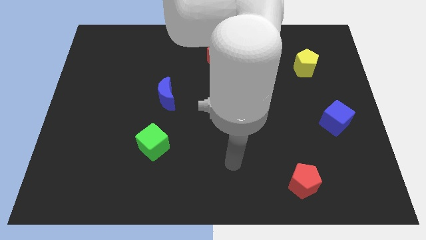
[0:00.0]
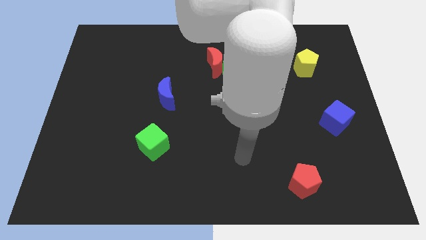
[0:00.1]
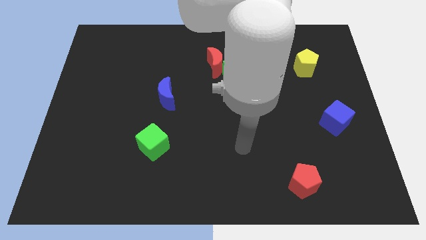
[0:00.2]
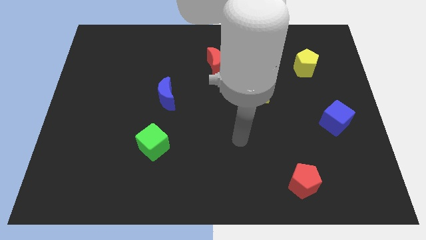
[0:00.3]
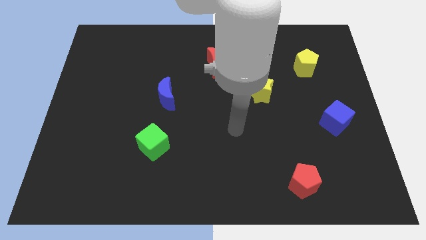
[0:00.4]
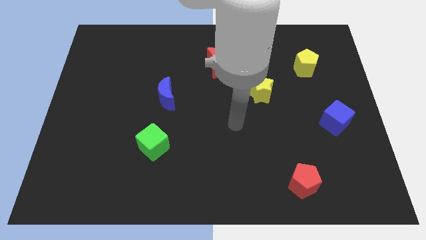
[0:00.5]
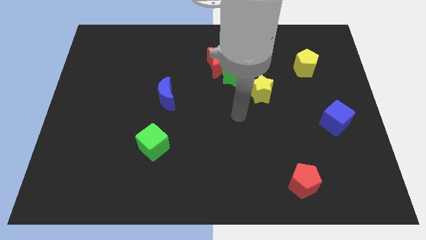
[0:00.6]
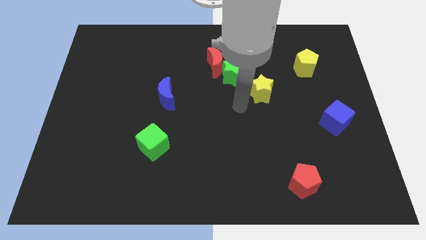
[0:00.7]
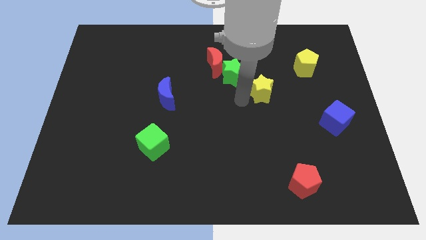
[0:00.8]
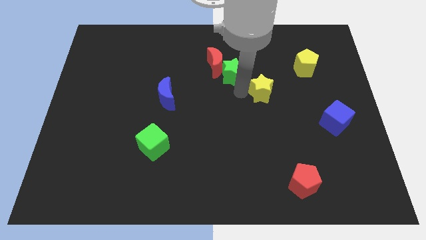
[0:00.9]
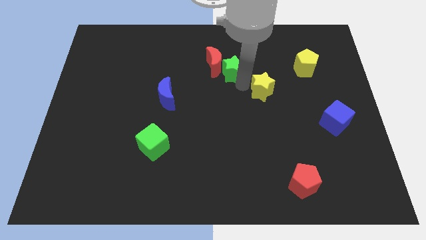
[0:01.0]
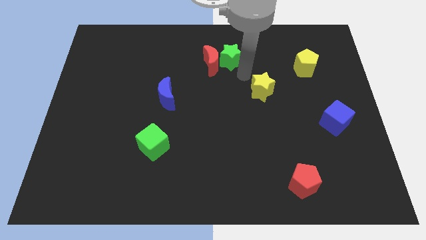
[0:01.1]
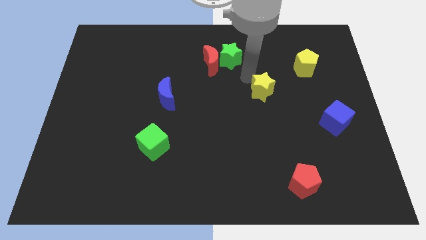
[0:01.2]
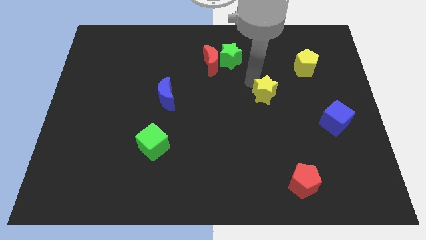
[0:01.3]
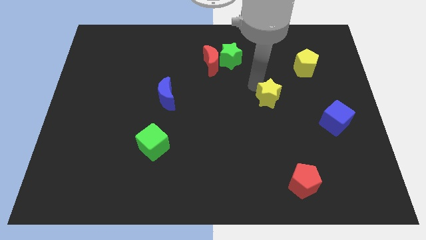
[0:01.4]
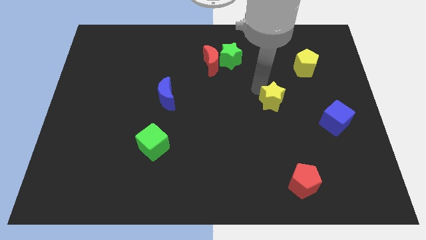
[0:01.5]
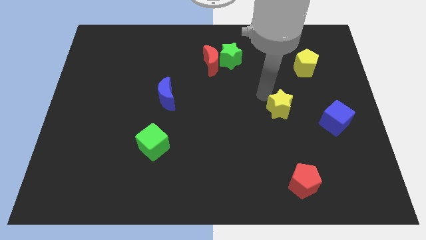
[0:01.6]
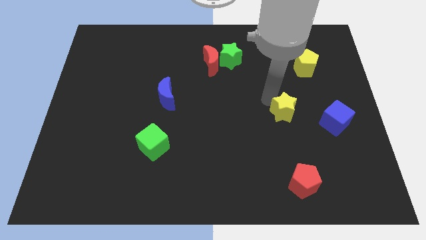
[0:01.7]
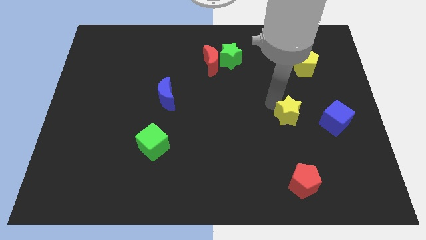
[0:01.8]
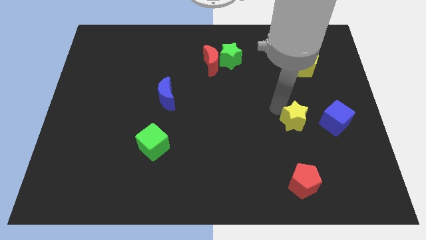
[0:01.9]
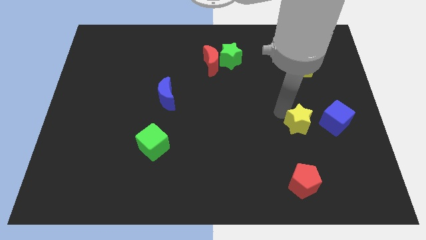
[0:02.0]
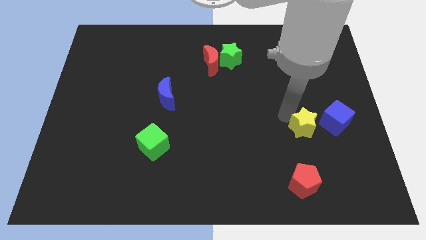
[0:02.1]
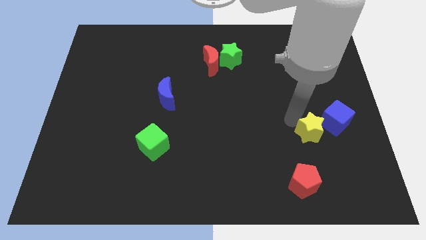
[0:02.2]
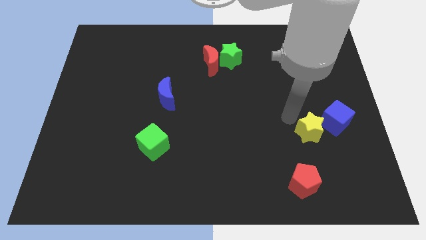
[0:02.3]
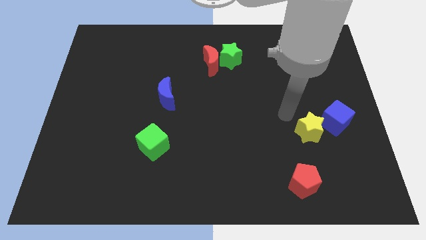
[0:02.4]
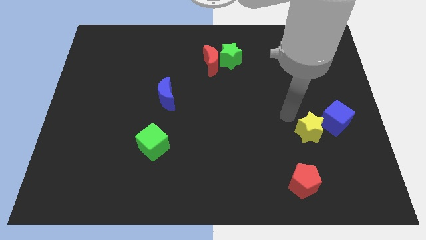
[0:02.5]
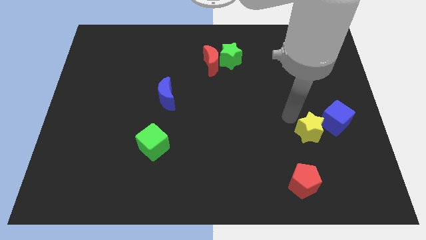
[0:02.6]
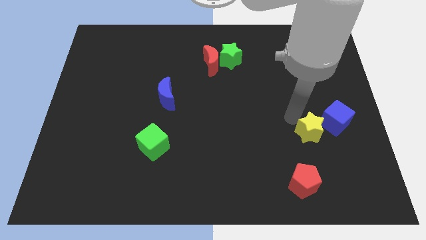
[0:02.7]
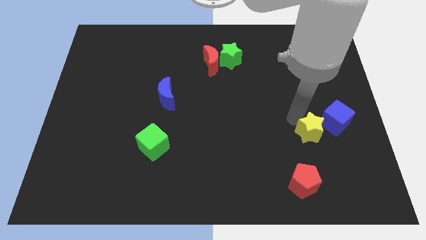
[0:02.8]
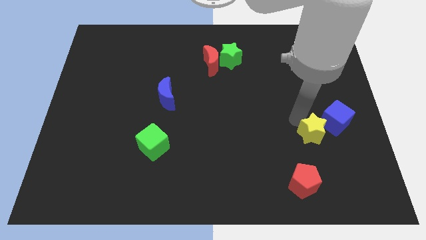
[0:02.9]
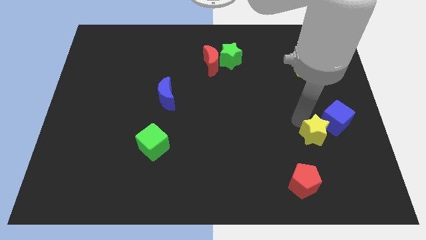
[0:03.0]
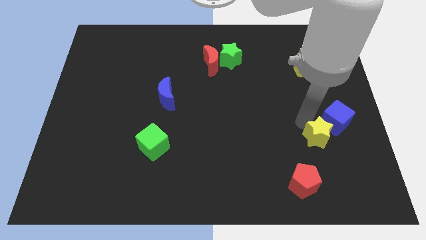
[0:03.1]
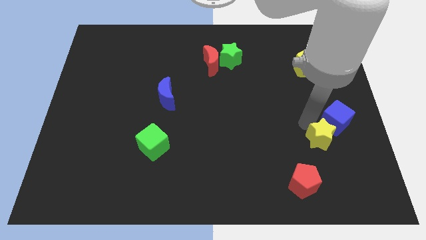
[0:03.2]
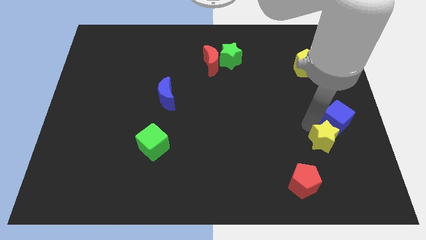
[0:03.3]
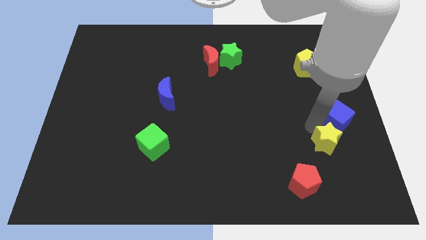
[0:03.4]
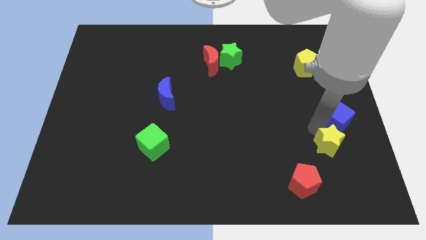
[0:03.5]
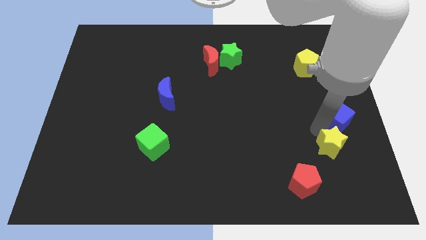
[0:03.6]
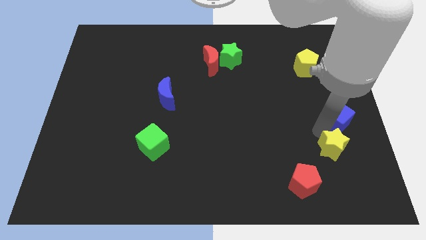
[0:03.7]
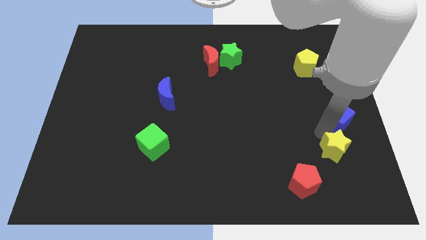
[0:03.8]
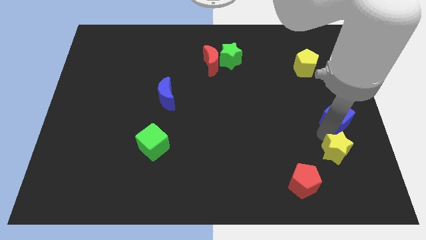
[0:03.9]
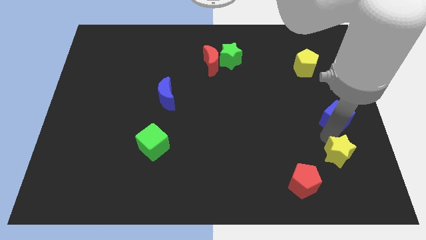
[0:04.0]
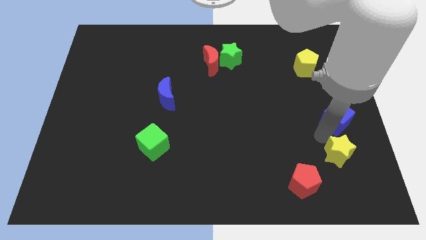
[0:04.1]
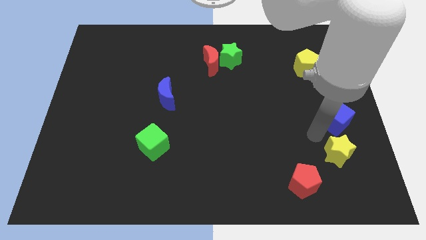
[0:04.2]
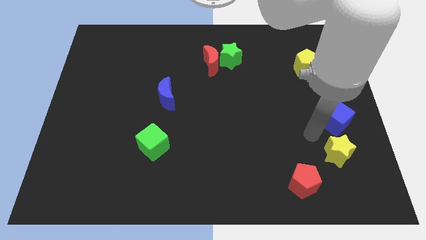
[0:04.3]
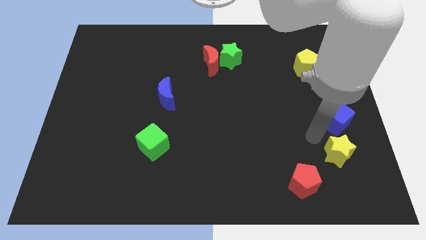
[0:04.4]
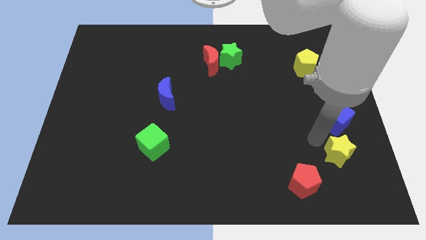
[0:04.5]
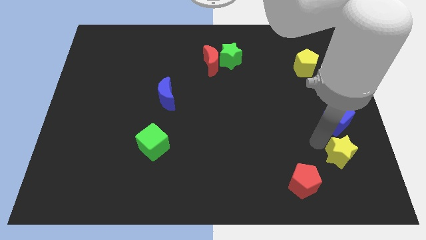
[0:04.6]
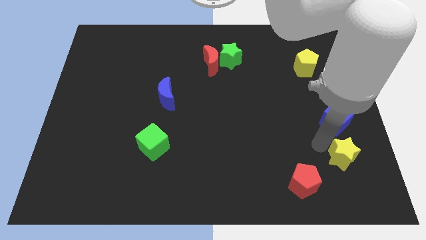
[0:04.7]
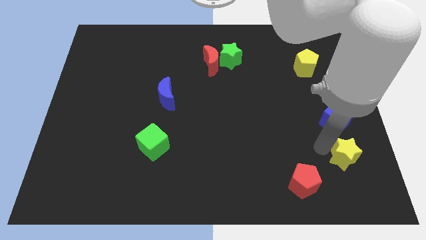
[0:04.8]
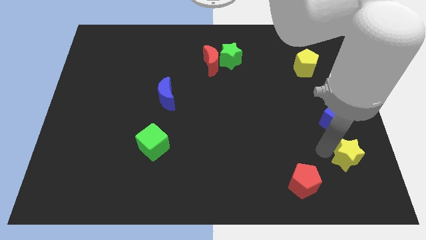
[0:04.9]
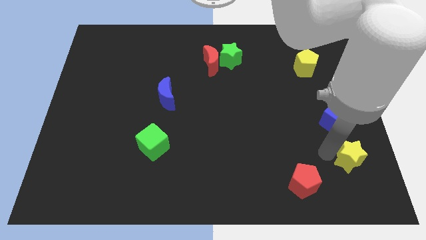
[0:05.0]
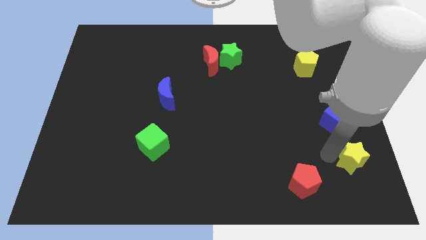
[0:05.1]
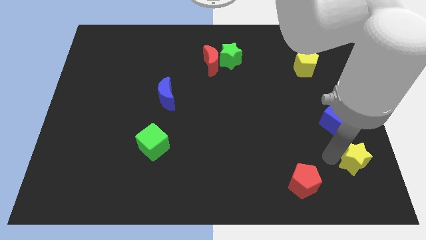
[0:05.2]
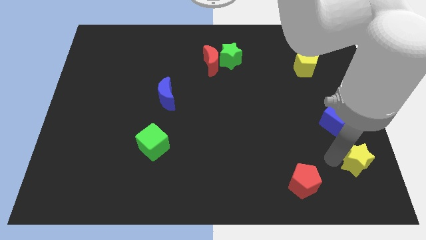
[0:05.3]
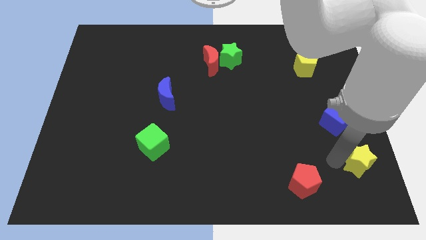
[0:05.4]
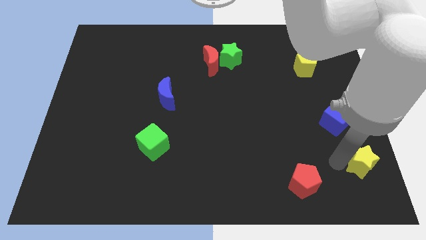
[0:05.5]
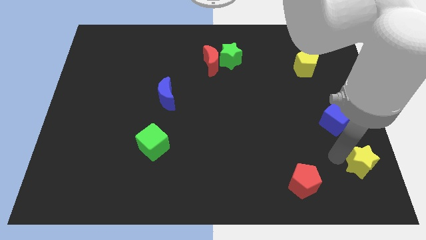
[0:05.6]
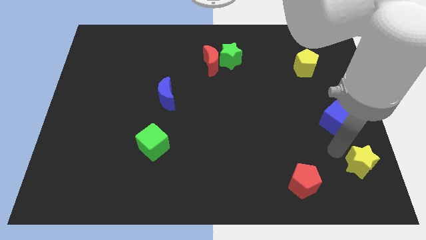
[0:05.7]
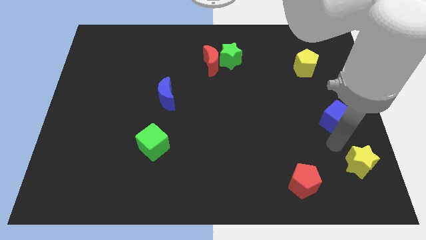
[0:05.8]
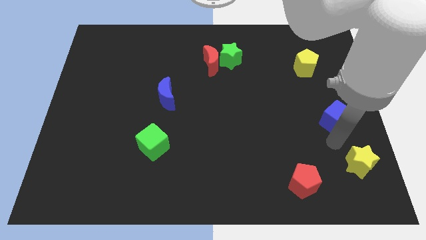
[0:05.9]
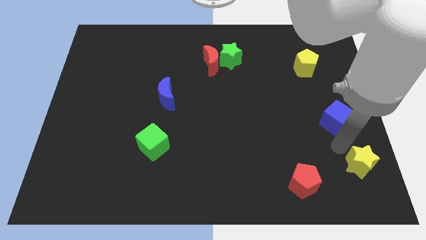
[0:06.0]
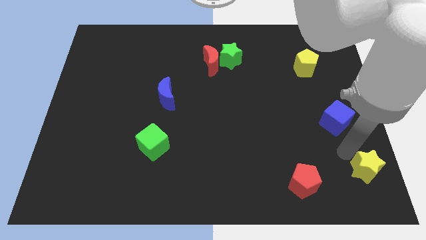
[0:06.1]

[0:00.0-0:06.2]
push the yellow star to the bottom right of the board

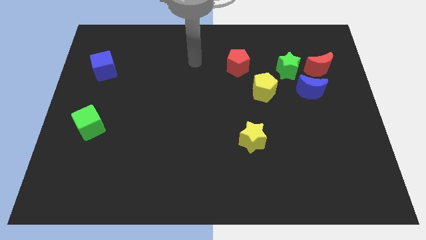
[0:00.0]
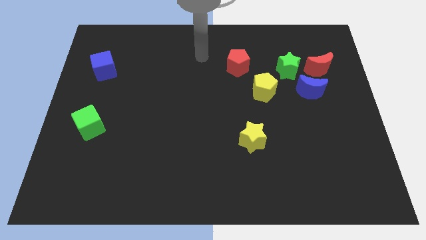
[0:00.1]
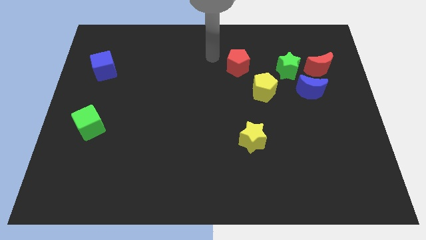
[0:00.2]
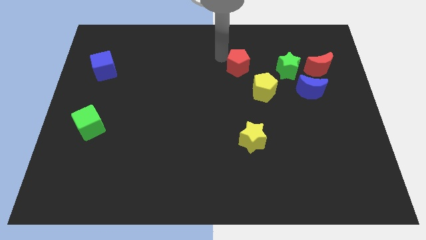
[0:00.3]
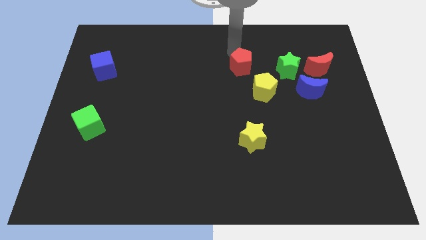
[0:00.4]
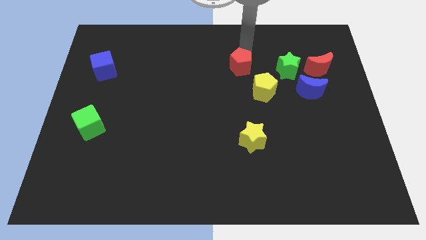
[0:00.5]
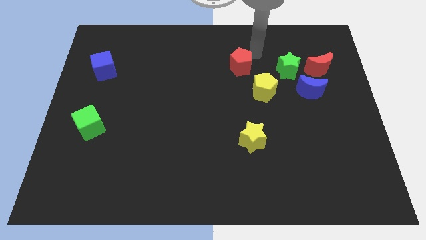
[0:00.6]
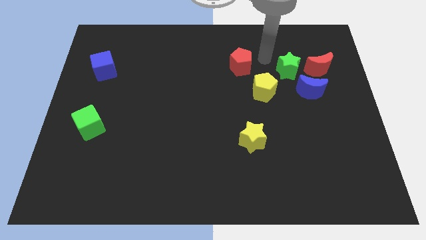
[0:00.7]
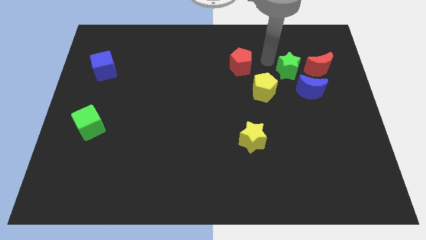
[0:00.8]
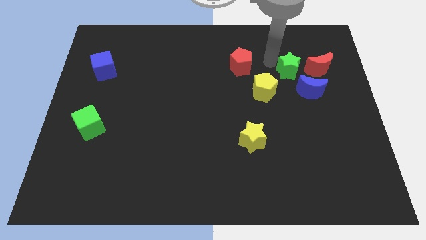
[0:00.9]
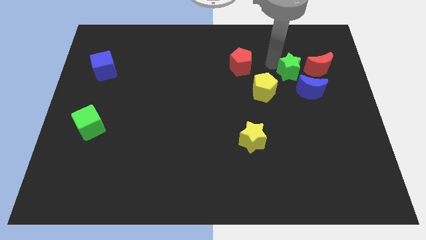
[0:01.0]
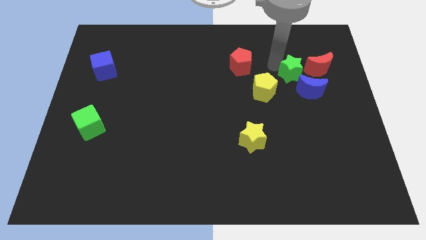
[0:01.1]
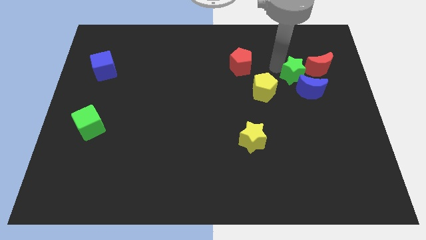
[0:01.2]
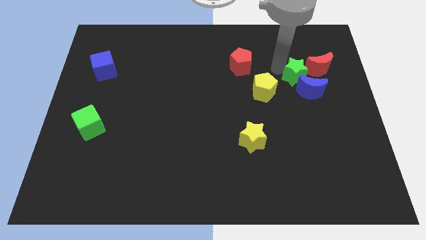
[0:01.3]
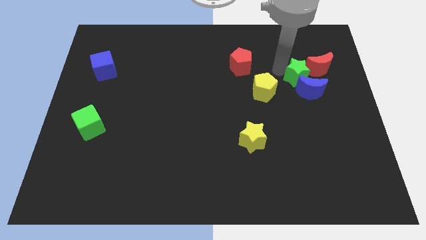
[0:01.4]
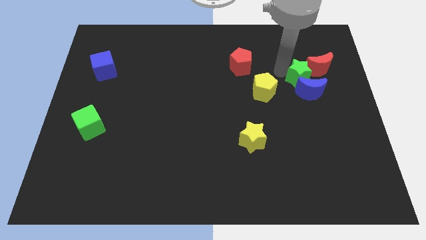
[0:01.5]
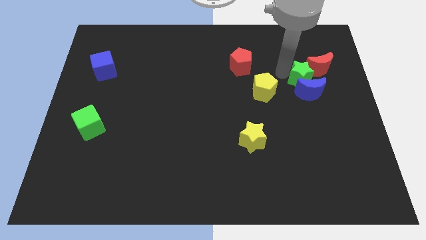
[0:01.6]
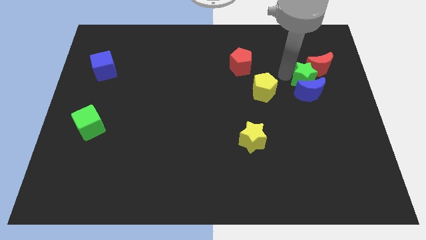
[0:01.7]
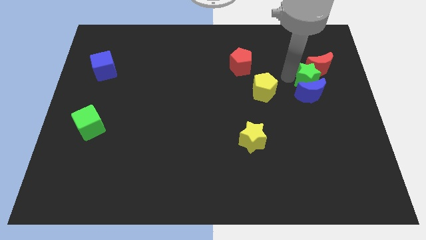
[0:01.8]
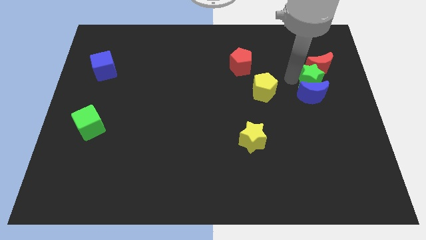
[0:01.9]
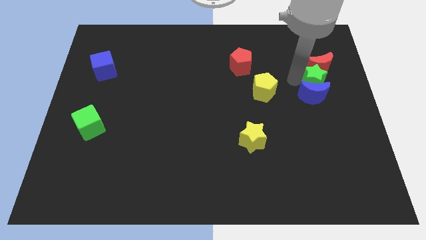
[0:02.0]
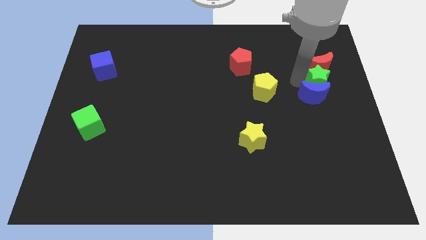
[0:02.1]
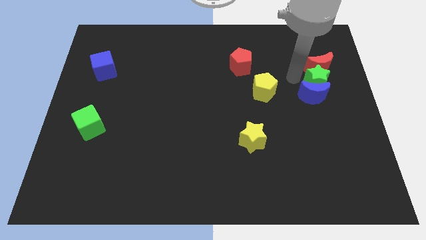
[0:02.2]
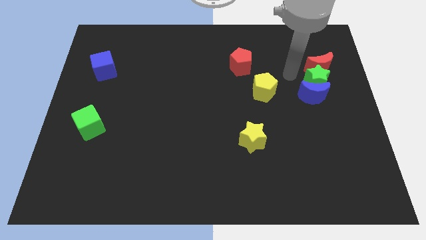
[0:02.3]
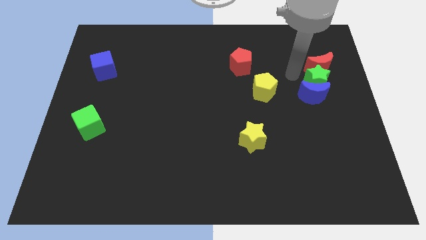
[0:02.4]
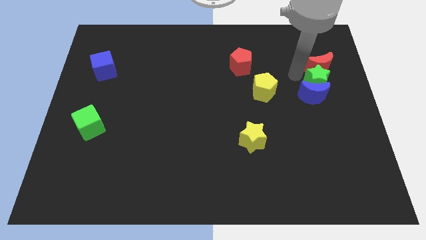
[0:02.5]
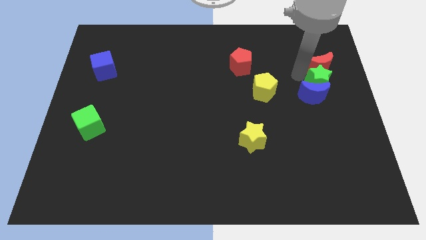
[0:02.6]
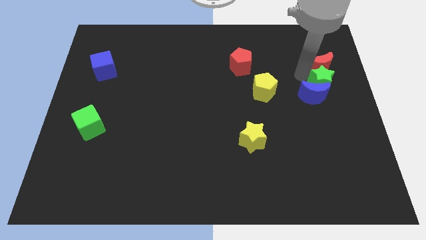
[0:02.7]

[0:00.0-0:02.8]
put the green star to the right side
